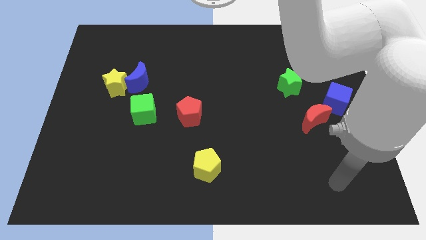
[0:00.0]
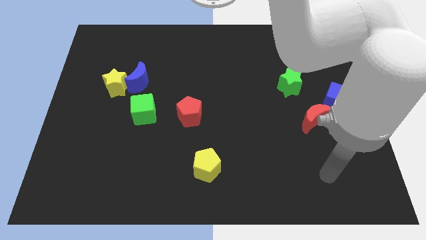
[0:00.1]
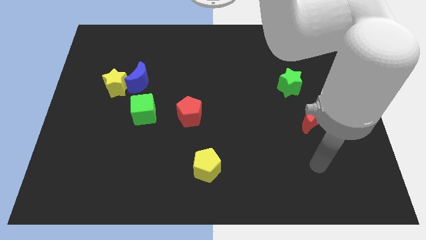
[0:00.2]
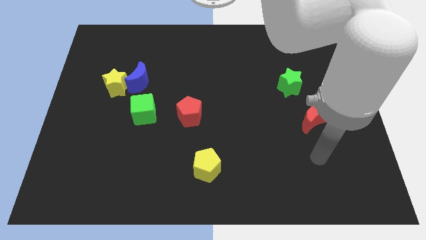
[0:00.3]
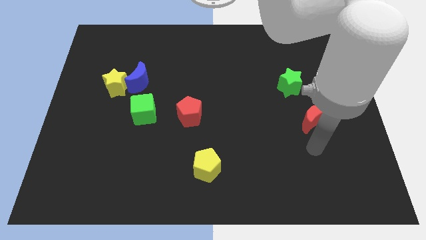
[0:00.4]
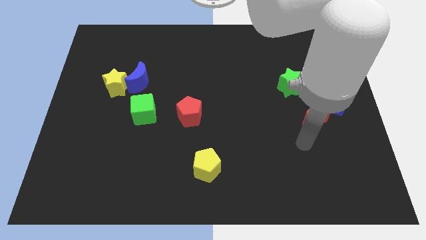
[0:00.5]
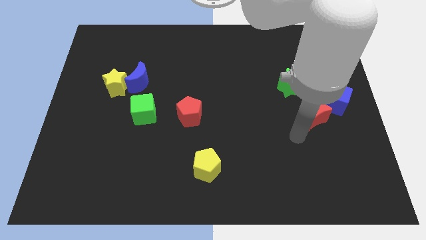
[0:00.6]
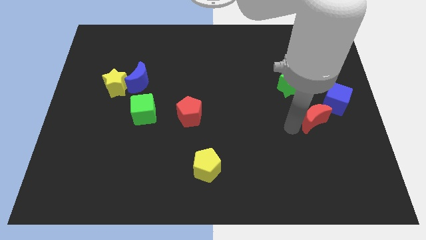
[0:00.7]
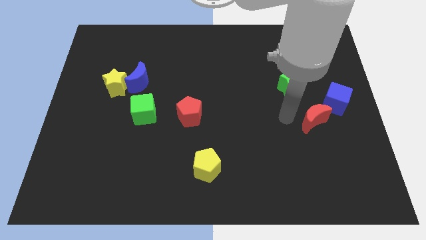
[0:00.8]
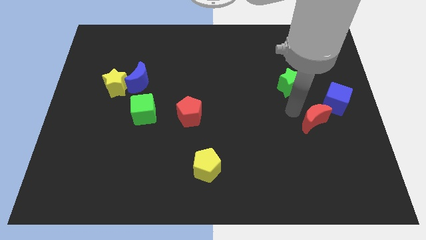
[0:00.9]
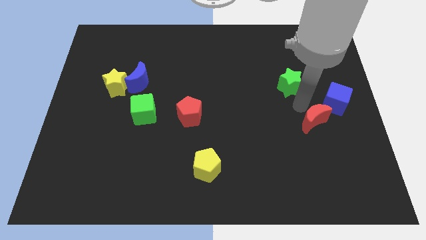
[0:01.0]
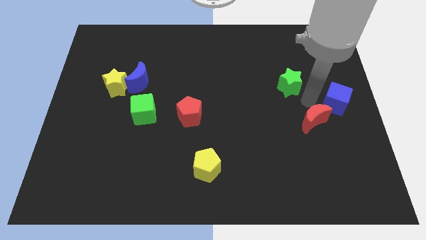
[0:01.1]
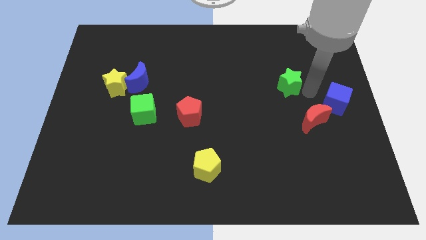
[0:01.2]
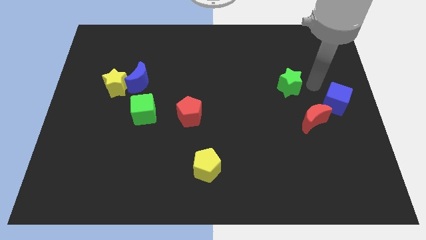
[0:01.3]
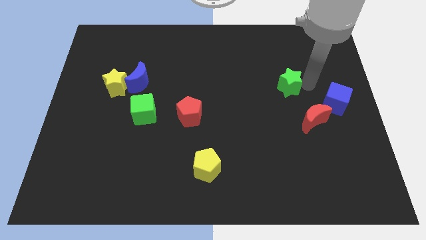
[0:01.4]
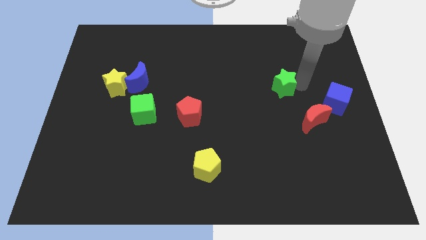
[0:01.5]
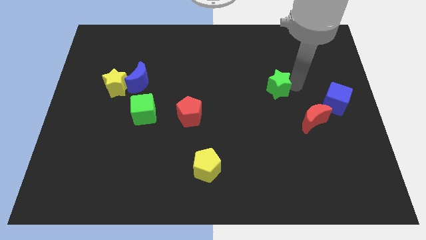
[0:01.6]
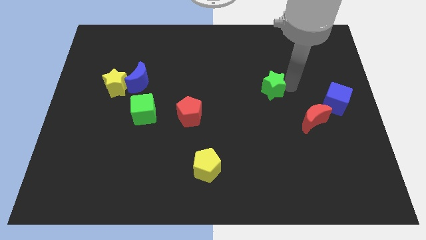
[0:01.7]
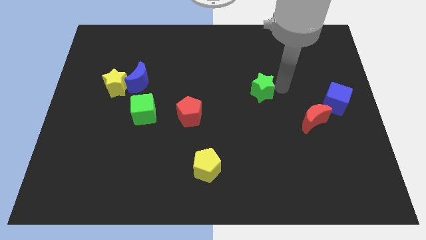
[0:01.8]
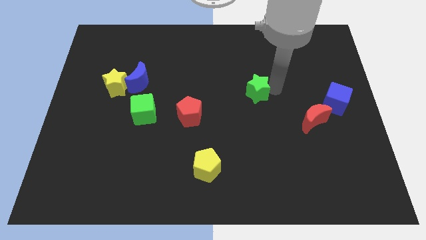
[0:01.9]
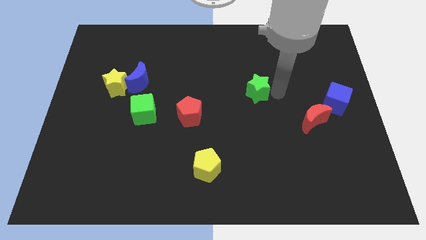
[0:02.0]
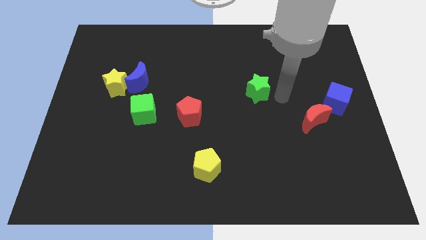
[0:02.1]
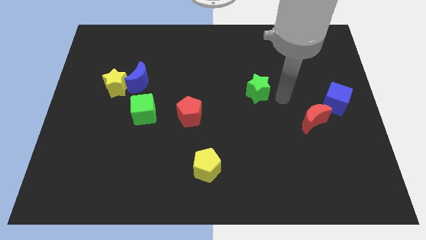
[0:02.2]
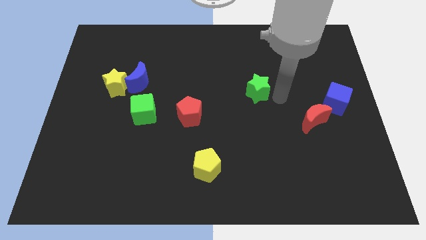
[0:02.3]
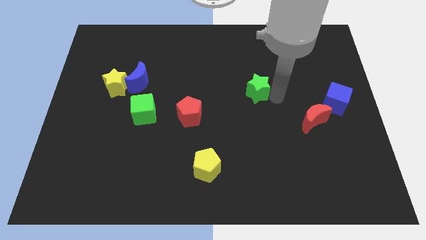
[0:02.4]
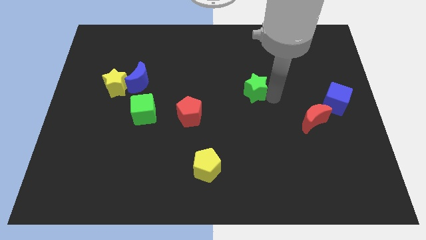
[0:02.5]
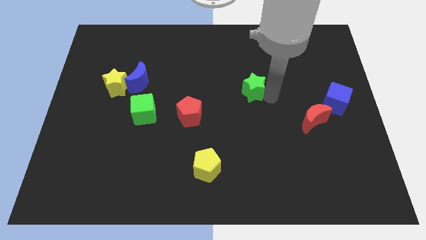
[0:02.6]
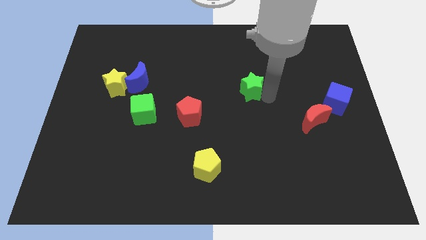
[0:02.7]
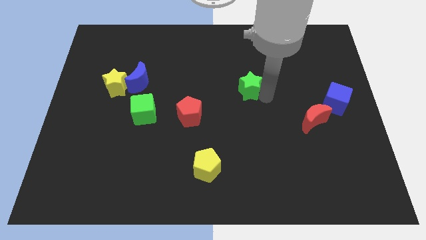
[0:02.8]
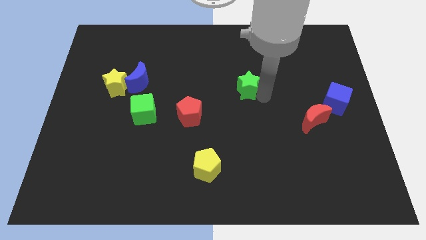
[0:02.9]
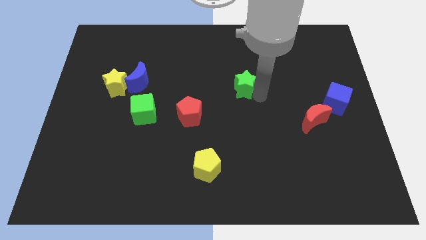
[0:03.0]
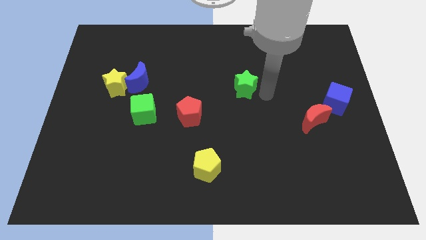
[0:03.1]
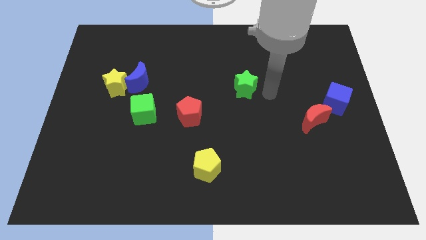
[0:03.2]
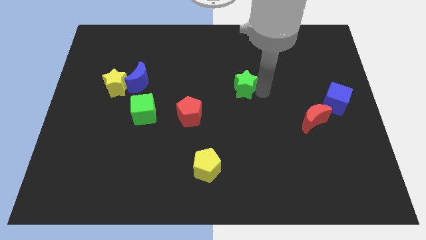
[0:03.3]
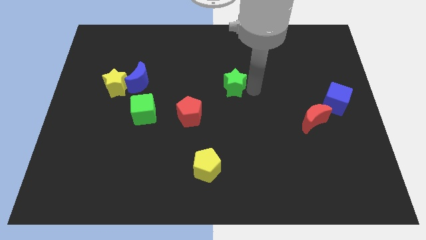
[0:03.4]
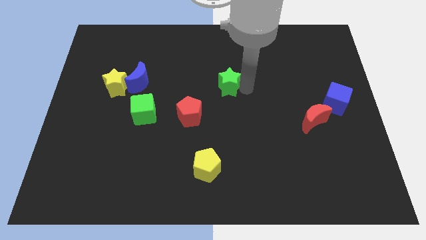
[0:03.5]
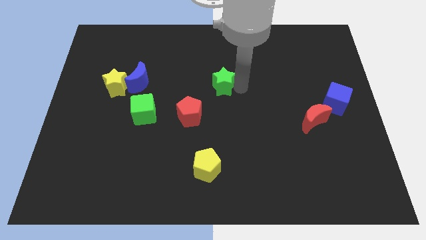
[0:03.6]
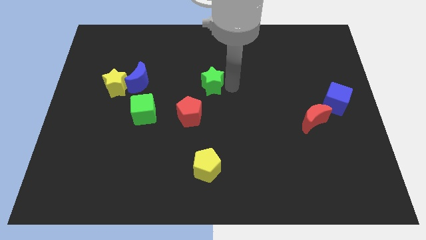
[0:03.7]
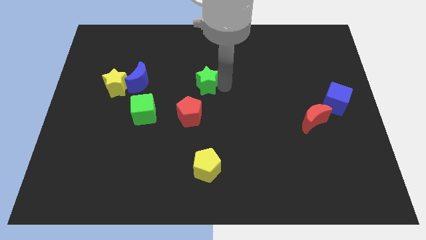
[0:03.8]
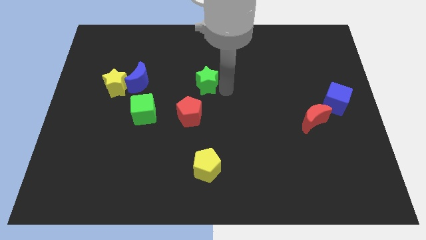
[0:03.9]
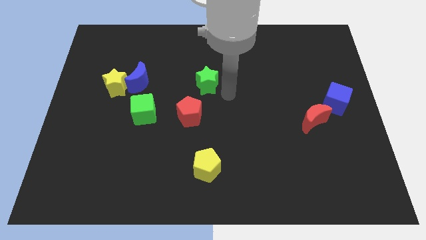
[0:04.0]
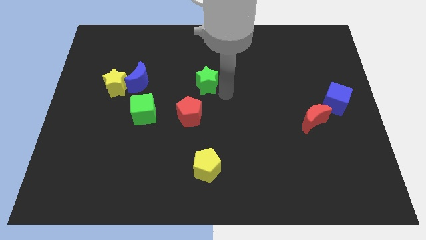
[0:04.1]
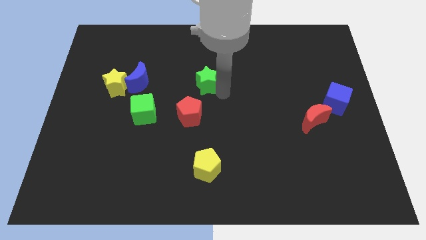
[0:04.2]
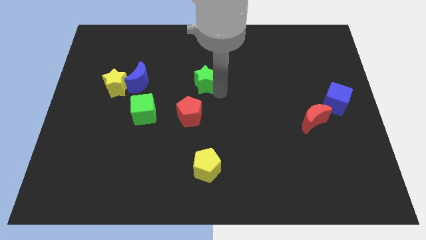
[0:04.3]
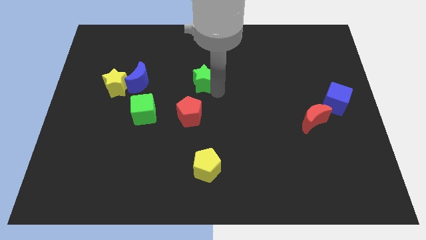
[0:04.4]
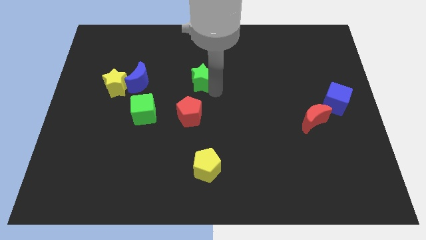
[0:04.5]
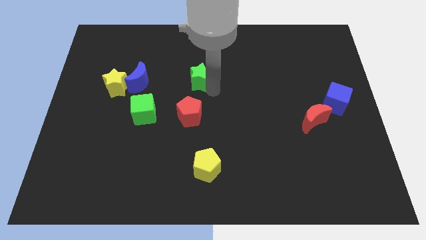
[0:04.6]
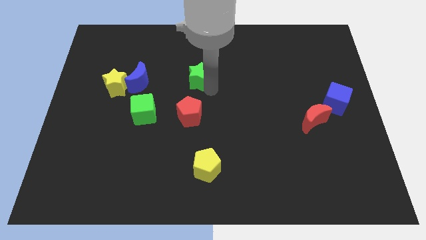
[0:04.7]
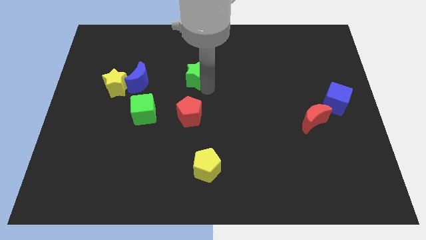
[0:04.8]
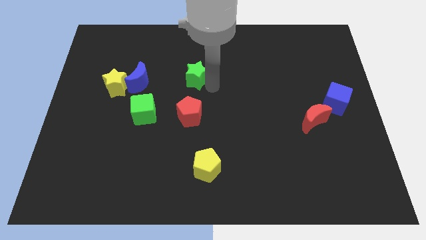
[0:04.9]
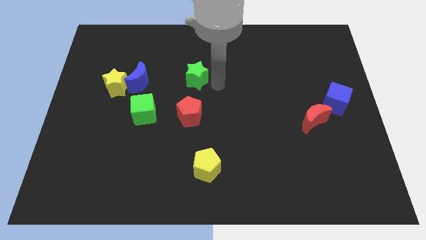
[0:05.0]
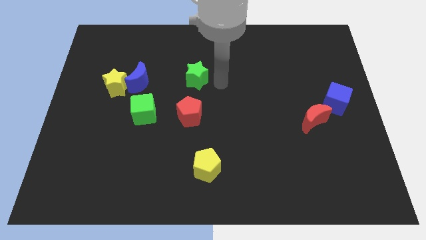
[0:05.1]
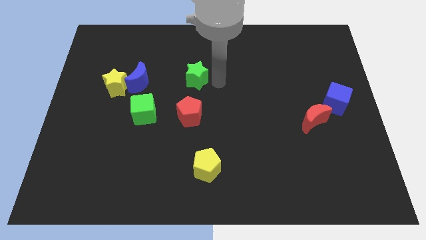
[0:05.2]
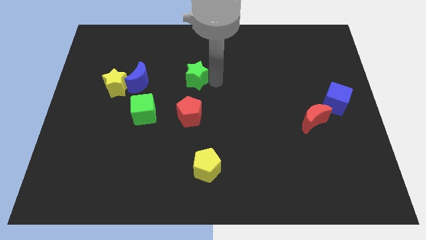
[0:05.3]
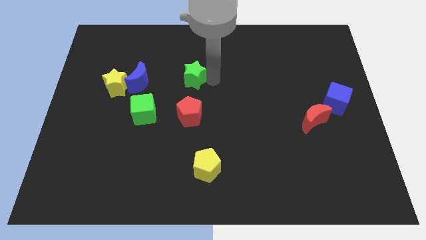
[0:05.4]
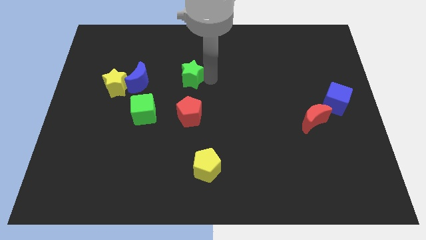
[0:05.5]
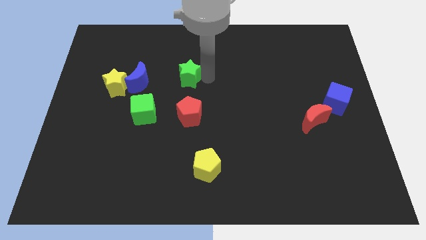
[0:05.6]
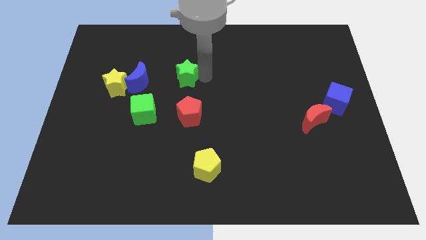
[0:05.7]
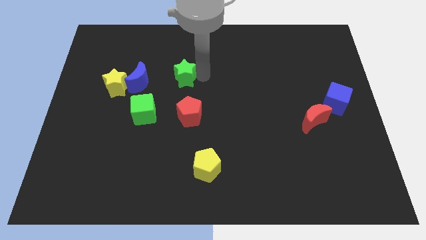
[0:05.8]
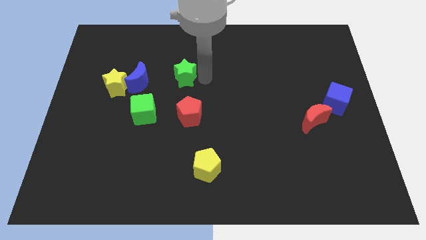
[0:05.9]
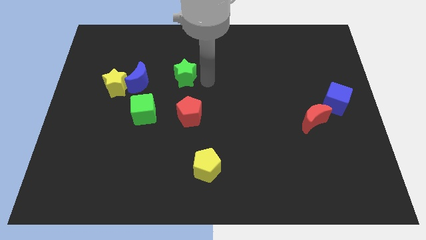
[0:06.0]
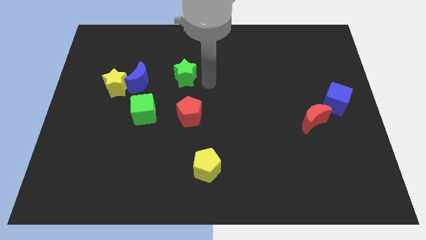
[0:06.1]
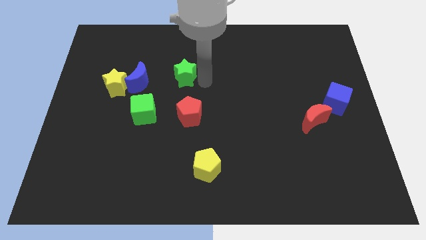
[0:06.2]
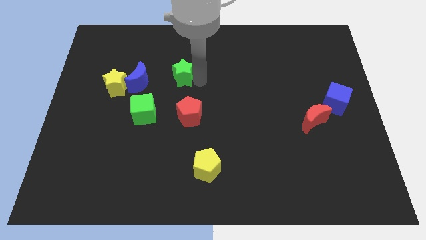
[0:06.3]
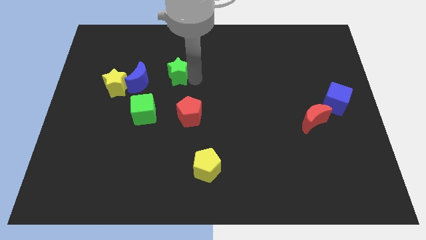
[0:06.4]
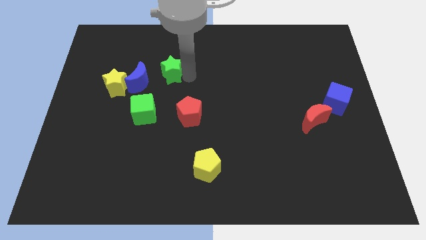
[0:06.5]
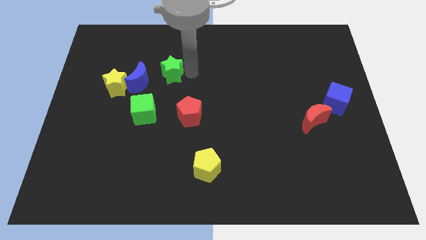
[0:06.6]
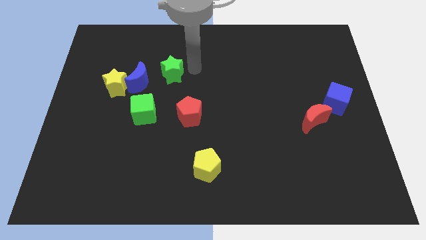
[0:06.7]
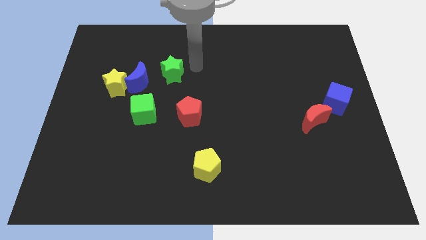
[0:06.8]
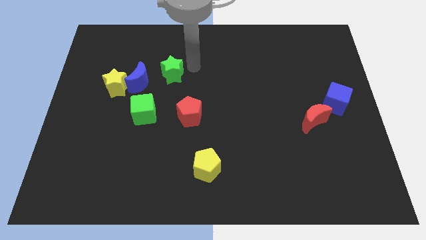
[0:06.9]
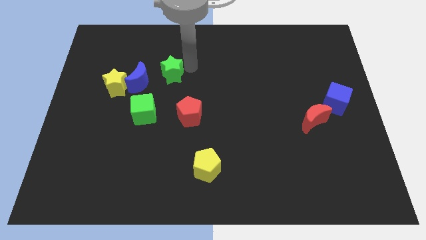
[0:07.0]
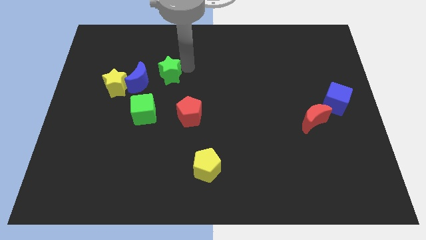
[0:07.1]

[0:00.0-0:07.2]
move the green star above the green cube
